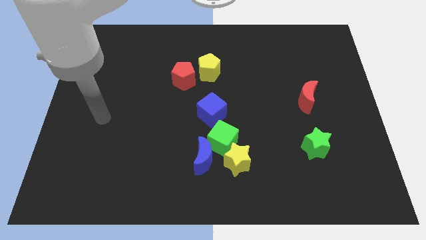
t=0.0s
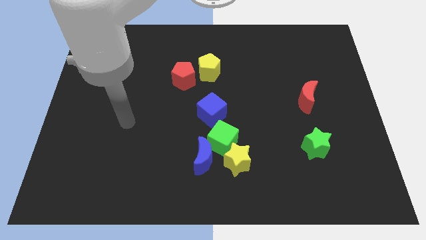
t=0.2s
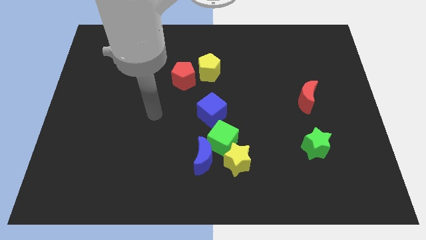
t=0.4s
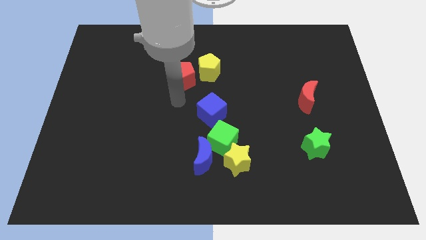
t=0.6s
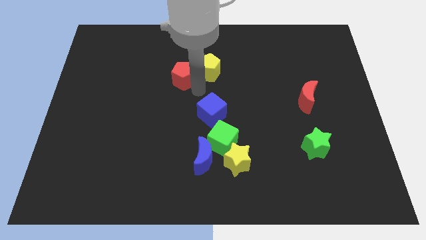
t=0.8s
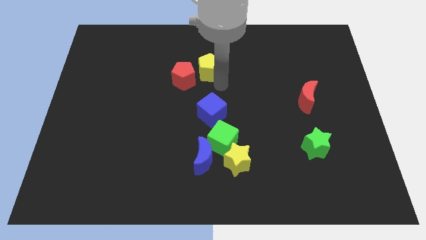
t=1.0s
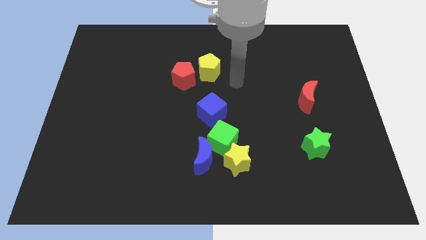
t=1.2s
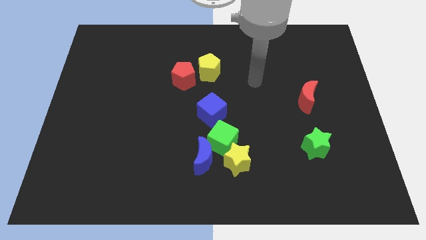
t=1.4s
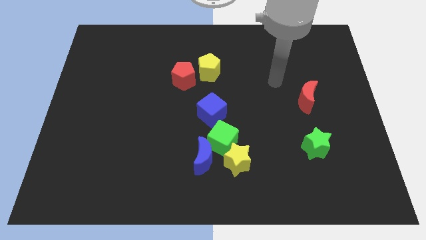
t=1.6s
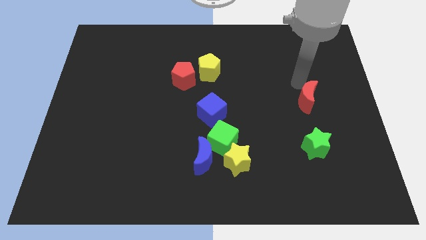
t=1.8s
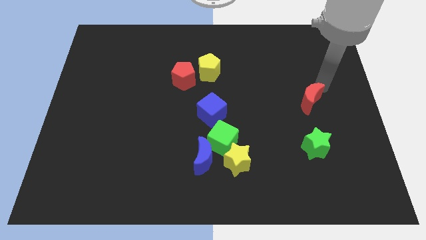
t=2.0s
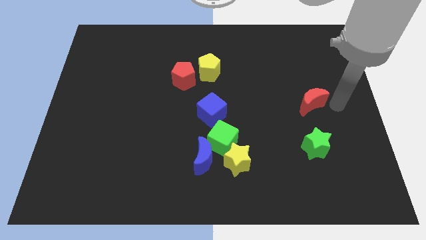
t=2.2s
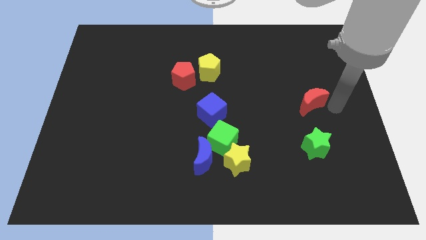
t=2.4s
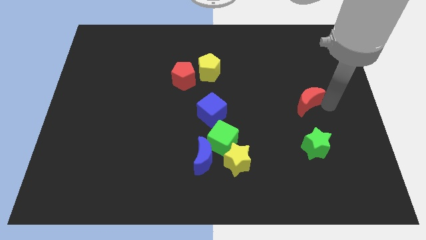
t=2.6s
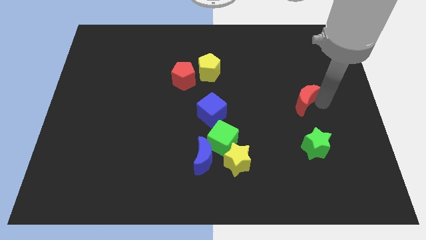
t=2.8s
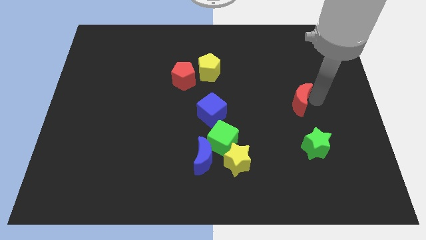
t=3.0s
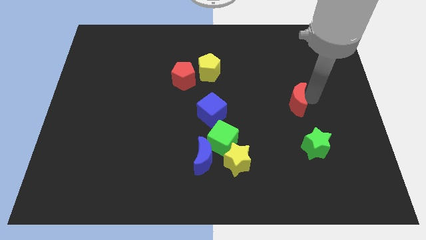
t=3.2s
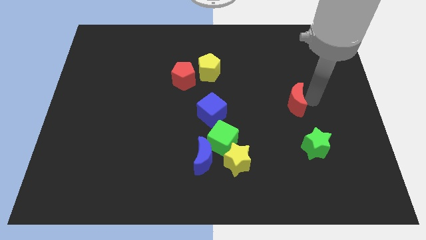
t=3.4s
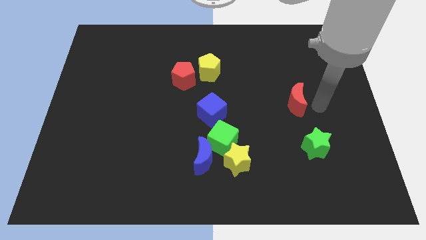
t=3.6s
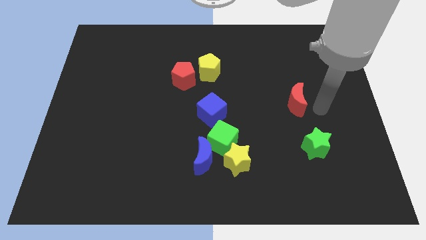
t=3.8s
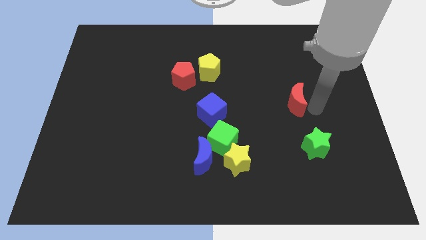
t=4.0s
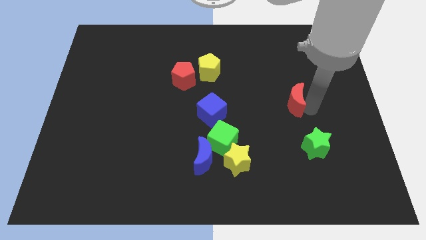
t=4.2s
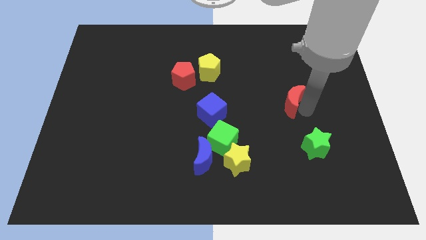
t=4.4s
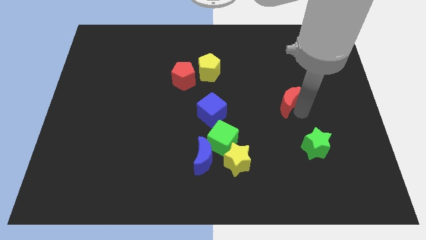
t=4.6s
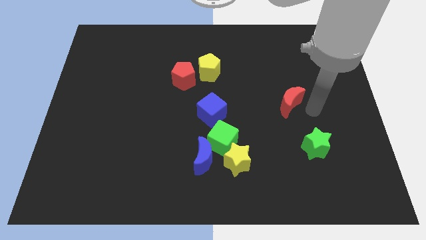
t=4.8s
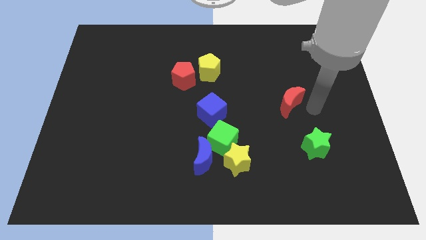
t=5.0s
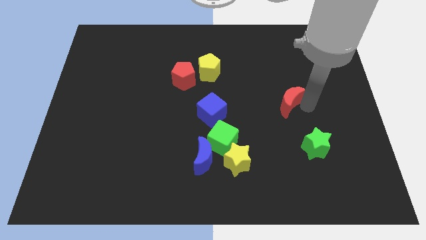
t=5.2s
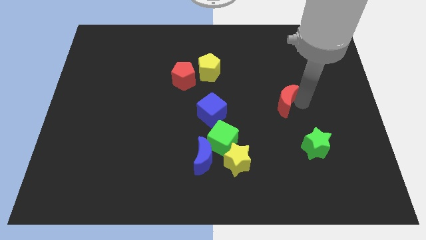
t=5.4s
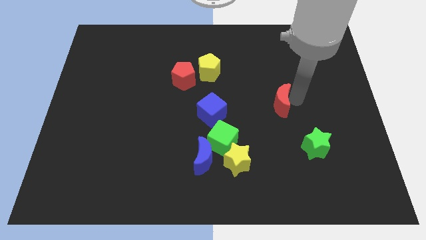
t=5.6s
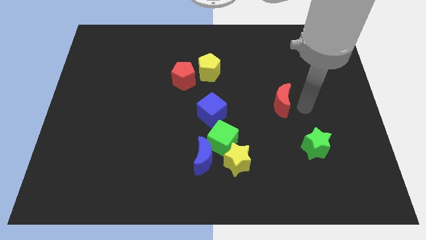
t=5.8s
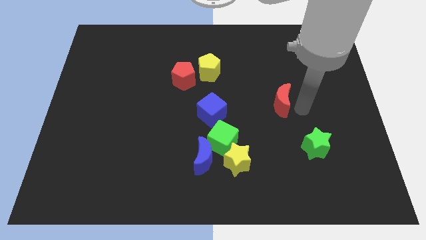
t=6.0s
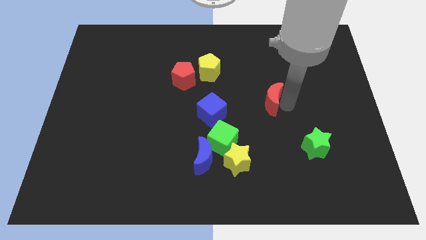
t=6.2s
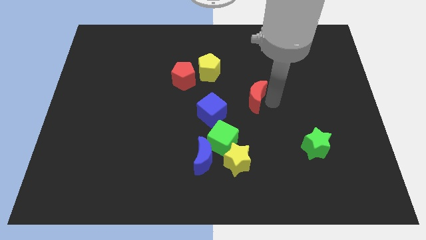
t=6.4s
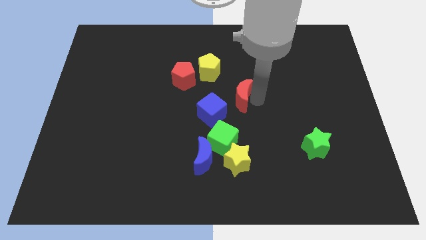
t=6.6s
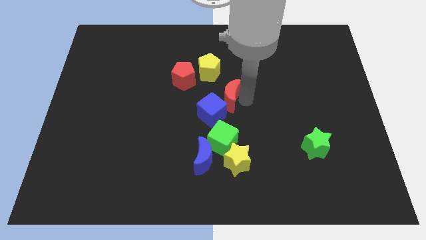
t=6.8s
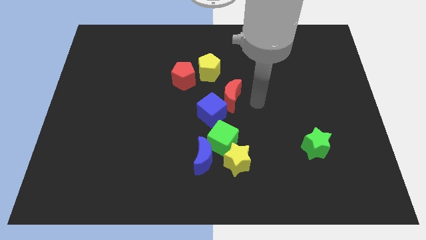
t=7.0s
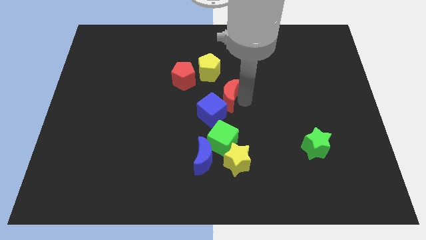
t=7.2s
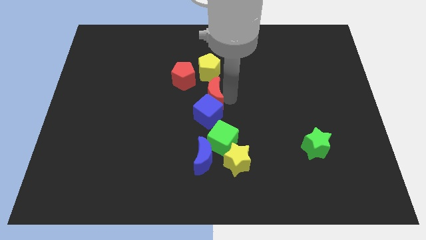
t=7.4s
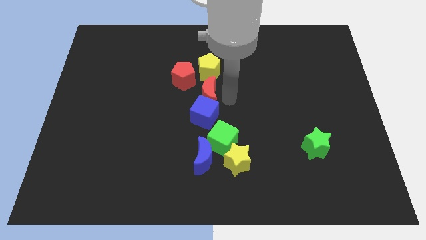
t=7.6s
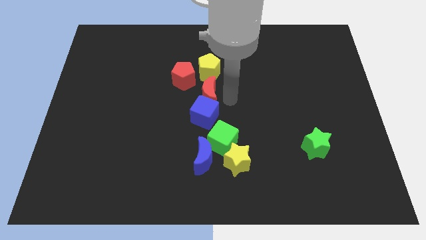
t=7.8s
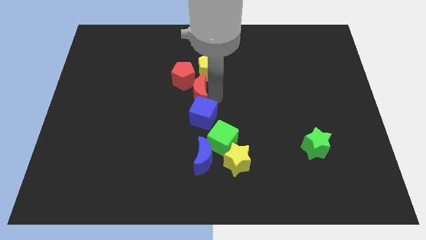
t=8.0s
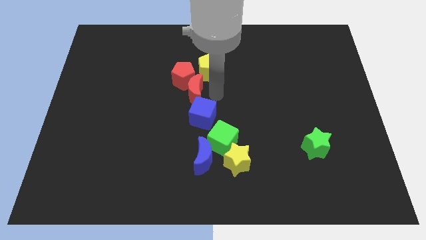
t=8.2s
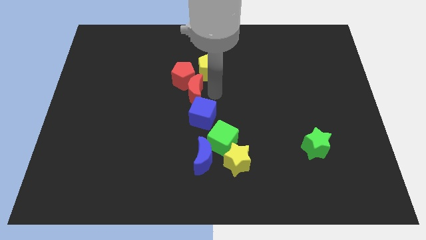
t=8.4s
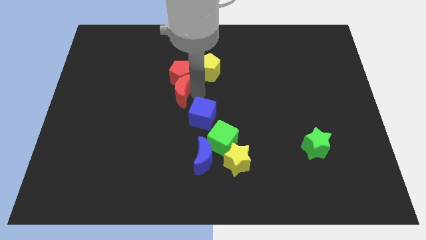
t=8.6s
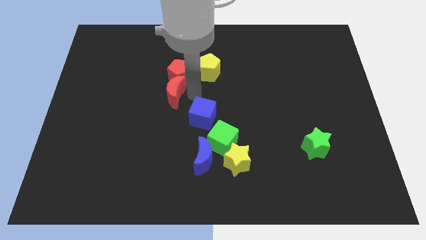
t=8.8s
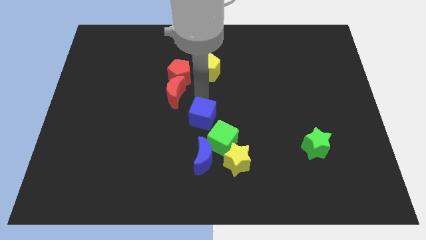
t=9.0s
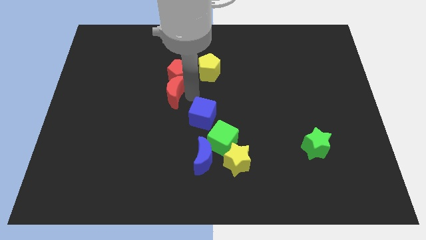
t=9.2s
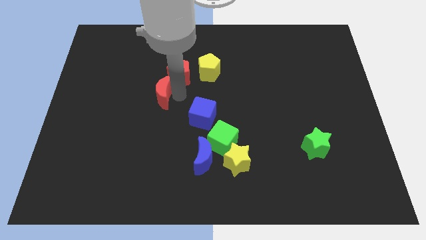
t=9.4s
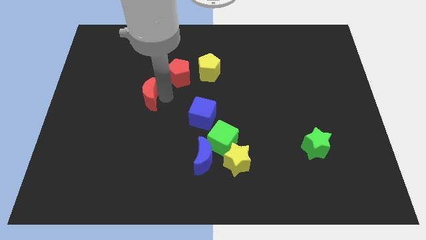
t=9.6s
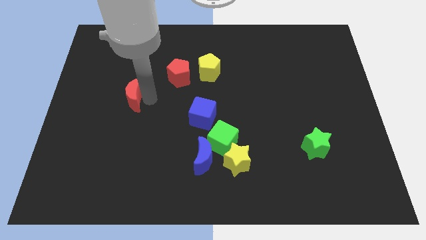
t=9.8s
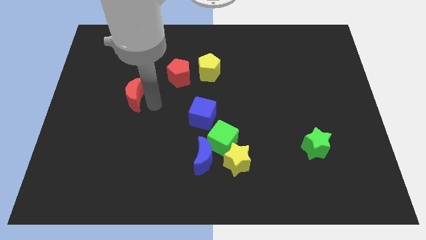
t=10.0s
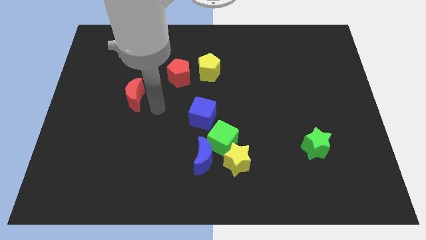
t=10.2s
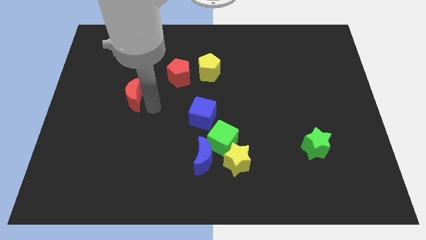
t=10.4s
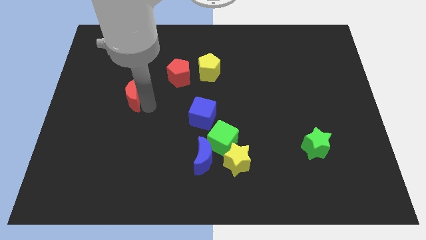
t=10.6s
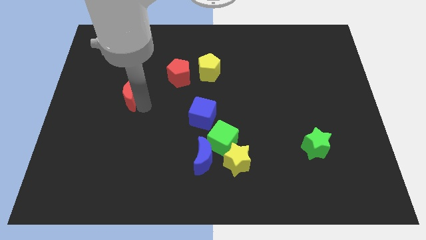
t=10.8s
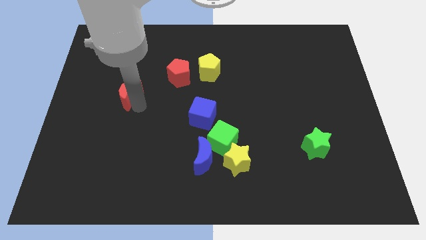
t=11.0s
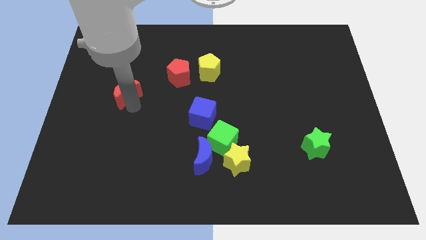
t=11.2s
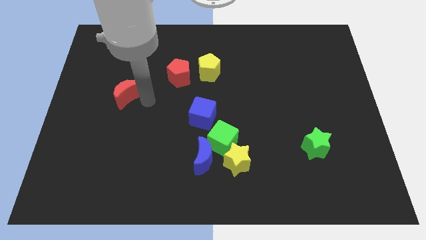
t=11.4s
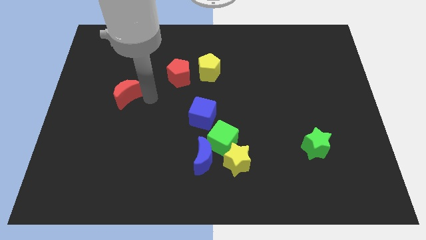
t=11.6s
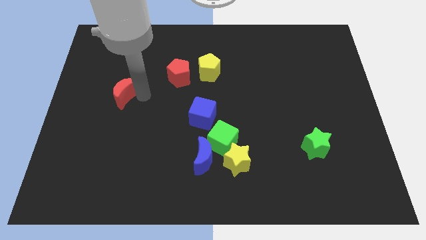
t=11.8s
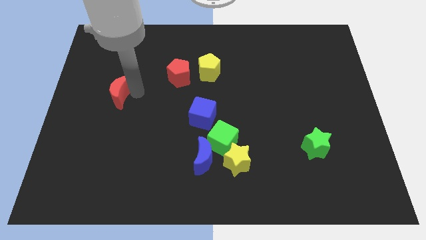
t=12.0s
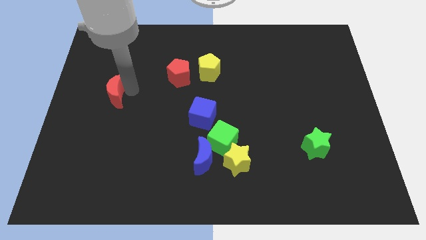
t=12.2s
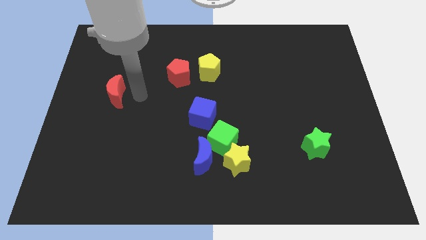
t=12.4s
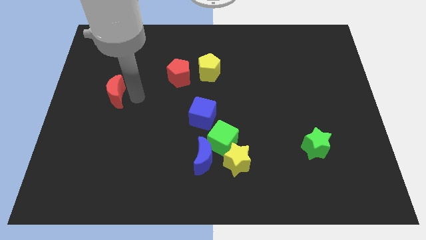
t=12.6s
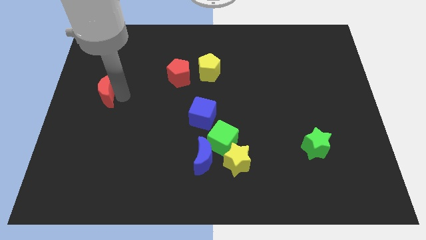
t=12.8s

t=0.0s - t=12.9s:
slide the red moon to the center left
